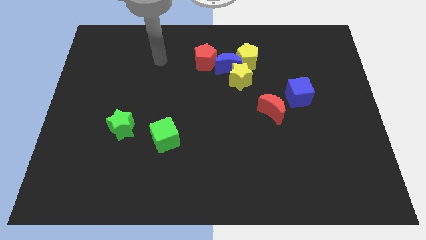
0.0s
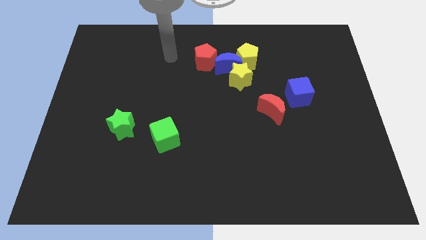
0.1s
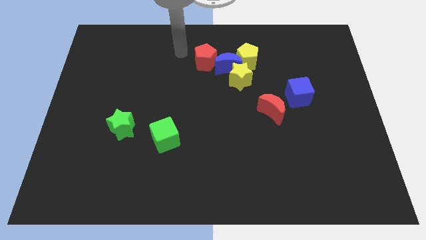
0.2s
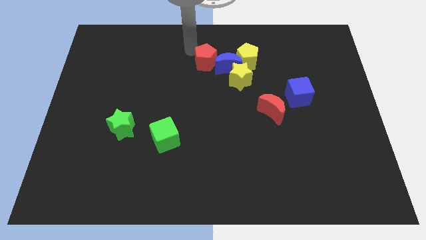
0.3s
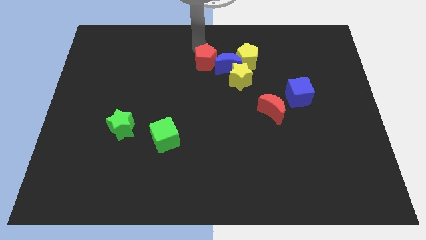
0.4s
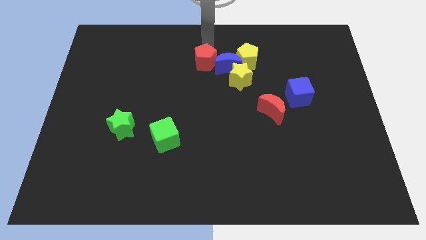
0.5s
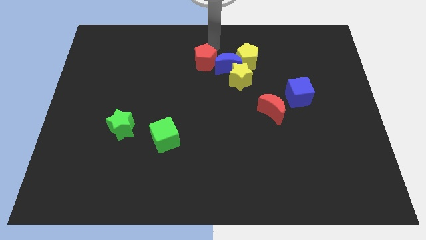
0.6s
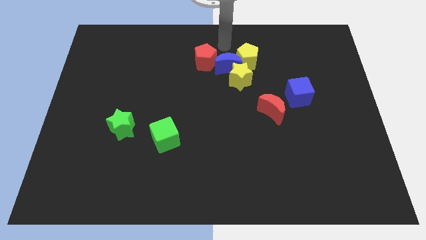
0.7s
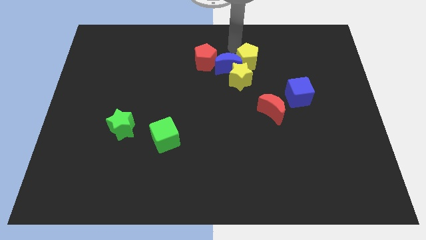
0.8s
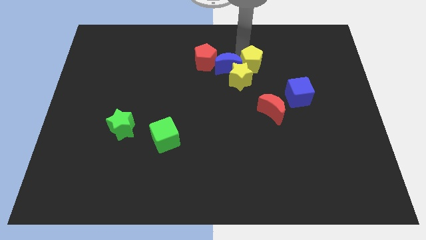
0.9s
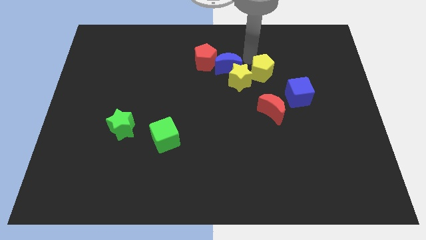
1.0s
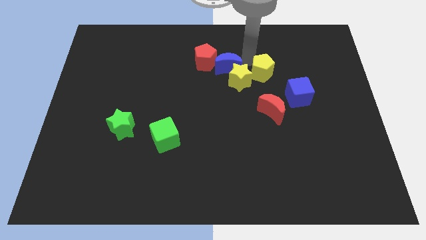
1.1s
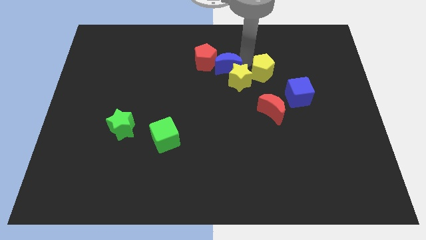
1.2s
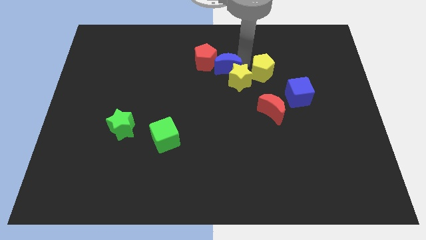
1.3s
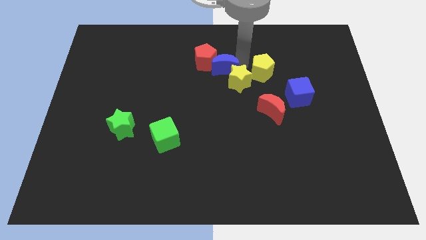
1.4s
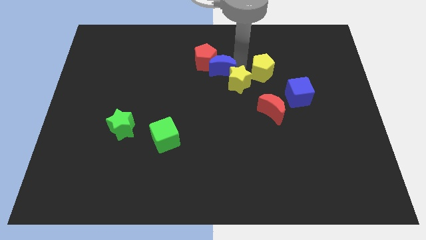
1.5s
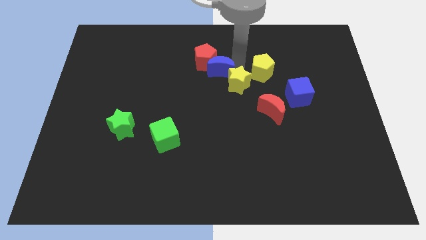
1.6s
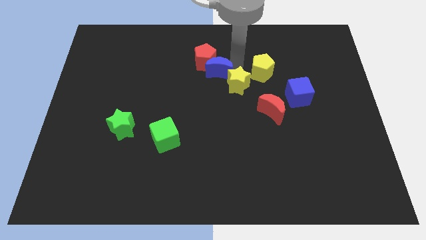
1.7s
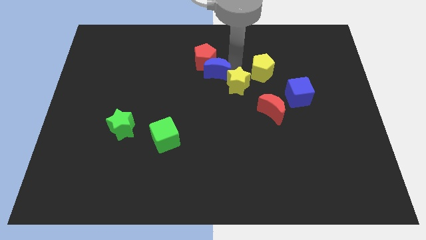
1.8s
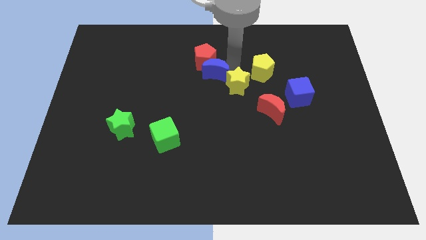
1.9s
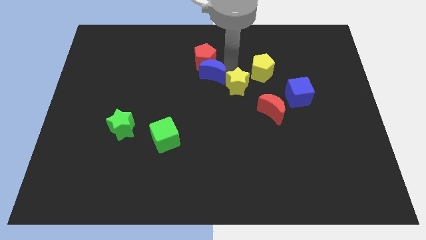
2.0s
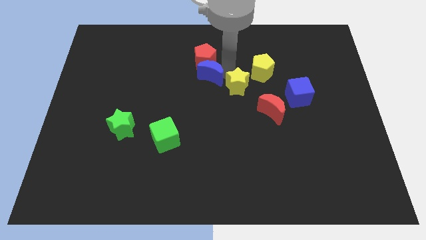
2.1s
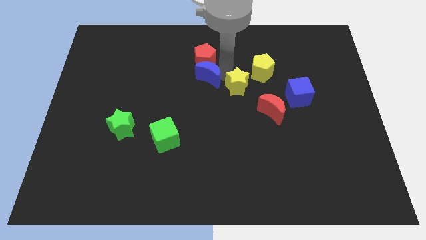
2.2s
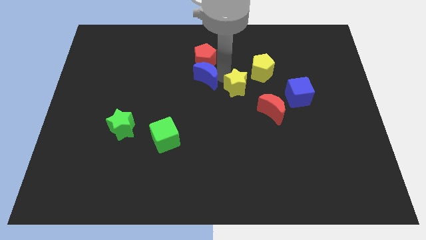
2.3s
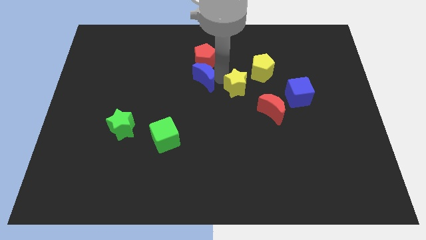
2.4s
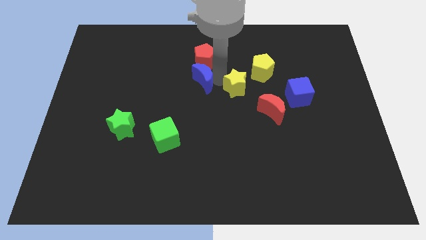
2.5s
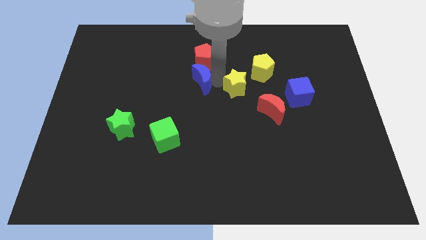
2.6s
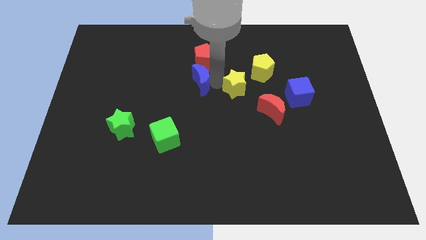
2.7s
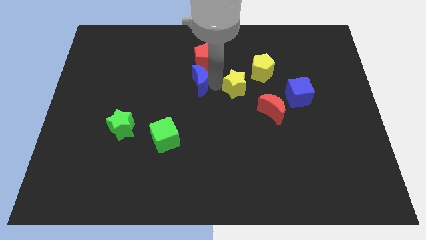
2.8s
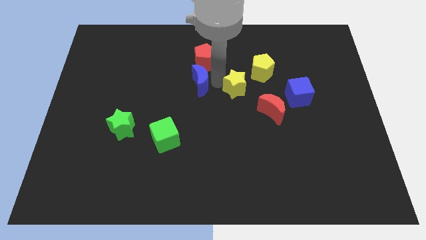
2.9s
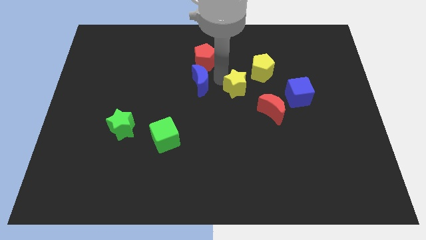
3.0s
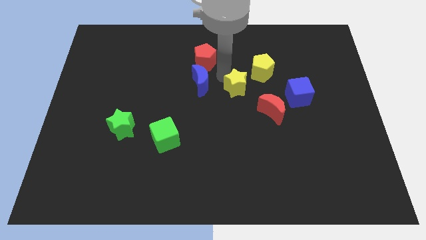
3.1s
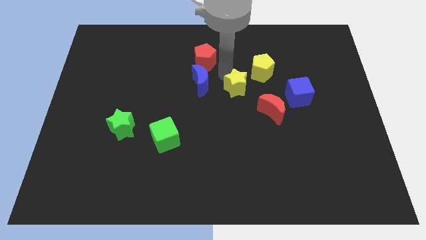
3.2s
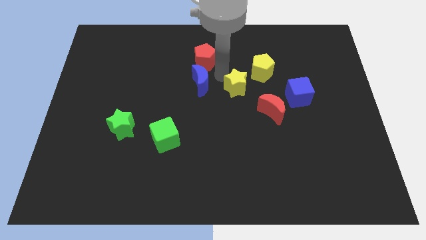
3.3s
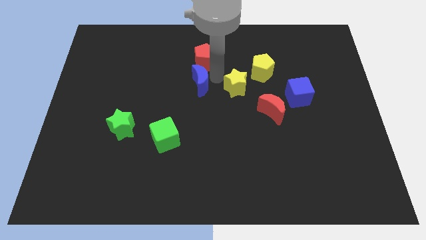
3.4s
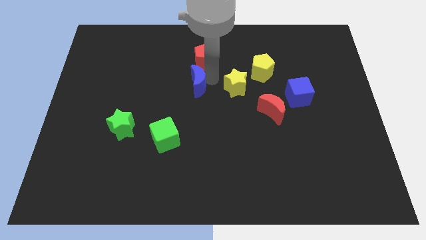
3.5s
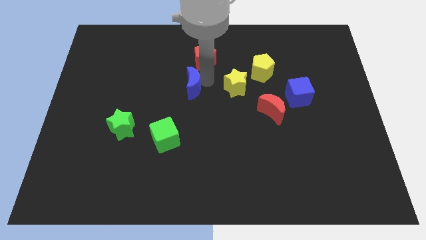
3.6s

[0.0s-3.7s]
separate the blue moon from the group of blocks

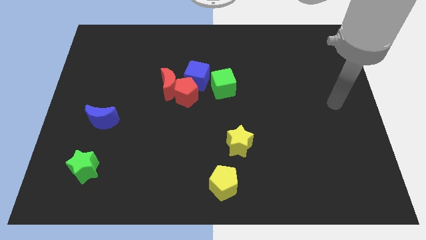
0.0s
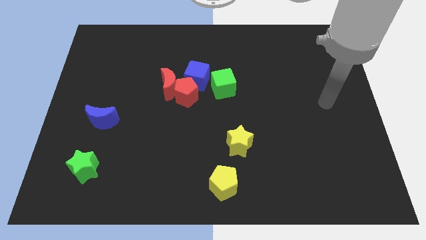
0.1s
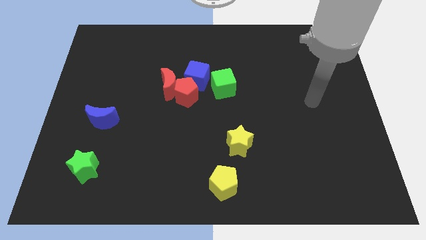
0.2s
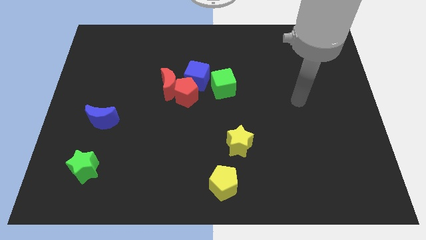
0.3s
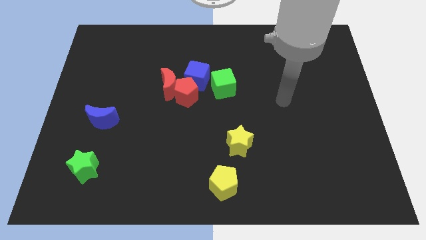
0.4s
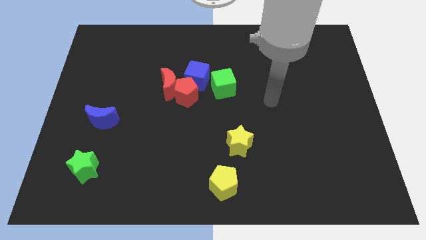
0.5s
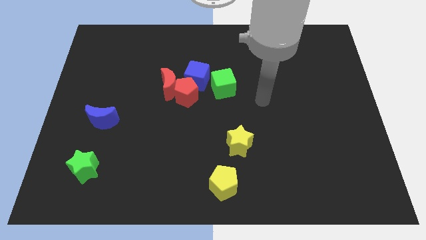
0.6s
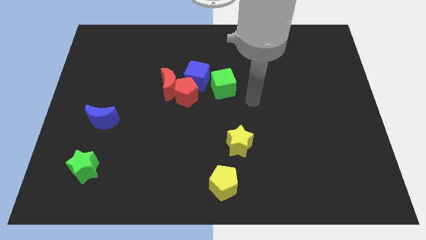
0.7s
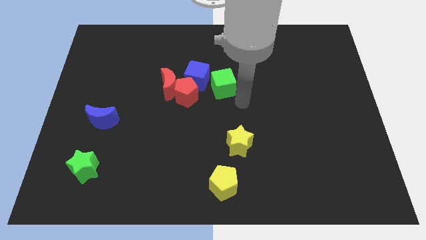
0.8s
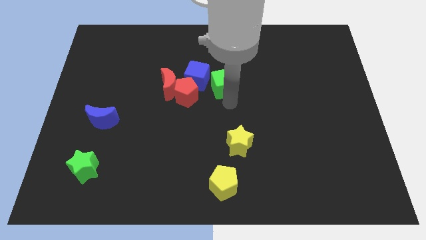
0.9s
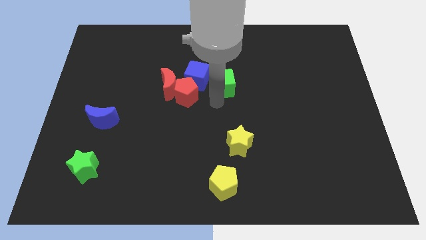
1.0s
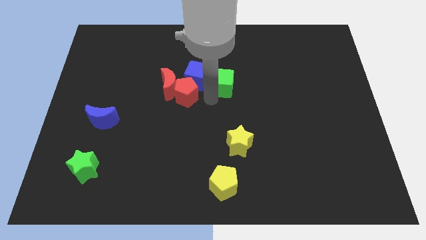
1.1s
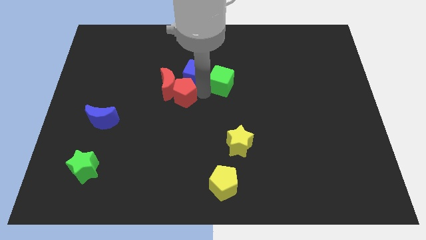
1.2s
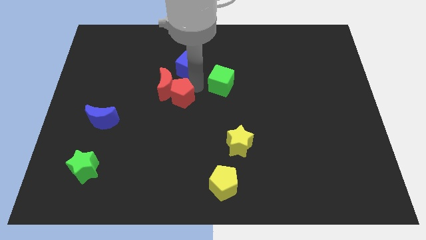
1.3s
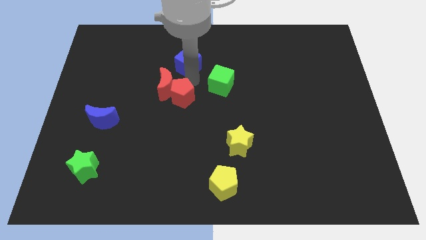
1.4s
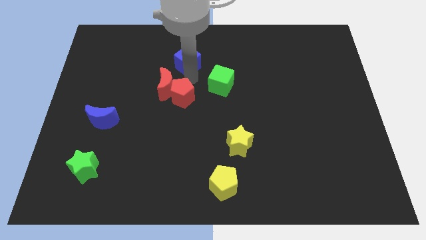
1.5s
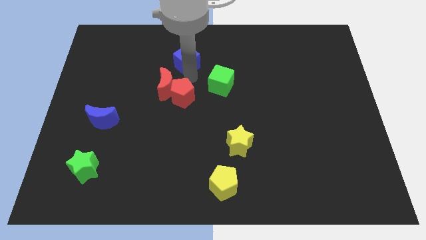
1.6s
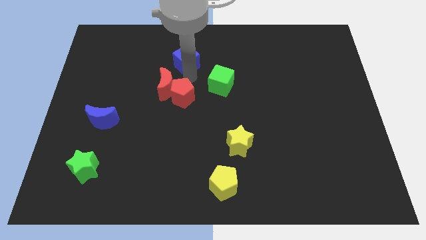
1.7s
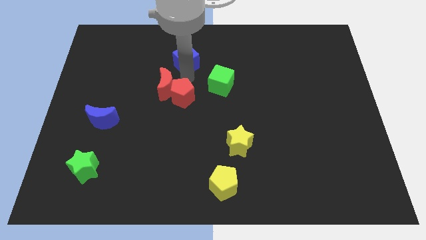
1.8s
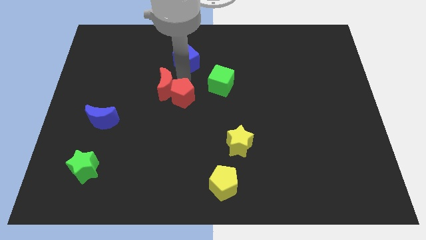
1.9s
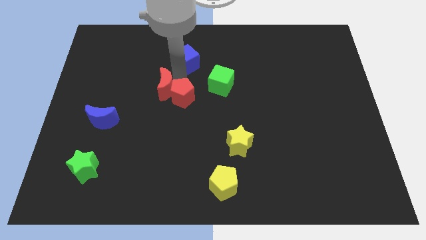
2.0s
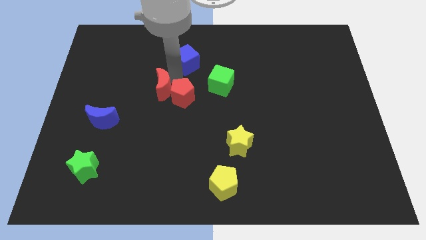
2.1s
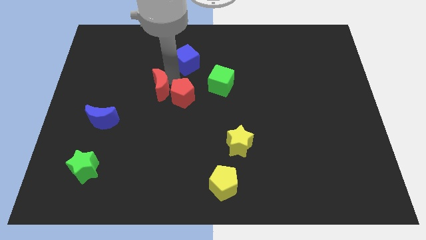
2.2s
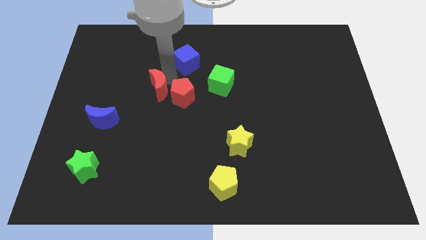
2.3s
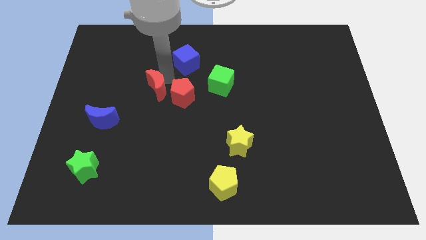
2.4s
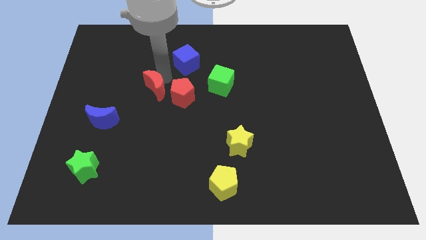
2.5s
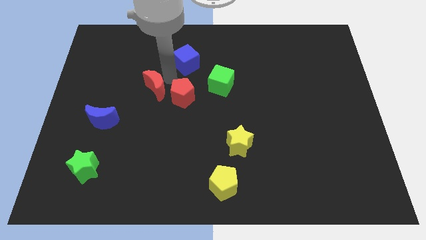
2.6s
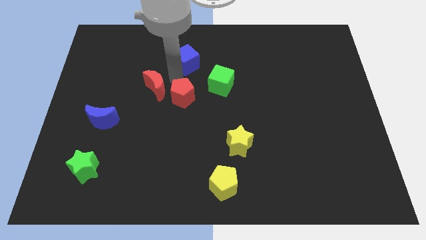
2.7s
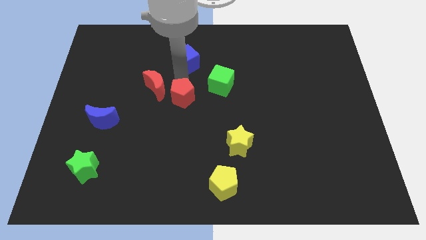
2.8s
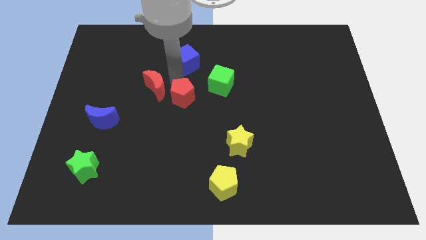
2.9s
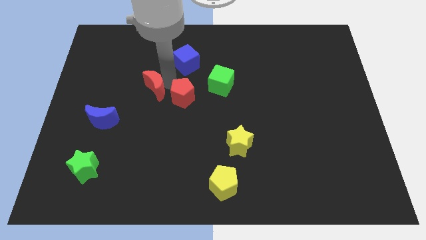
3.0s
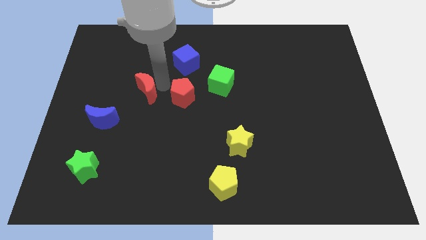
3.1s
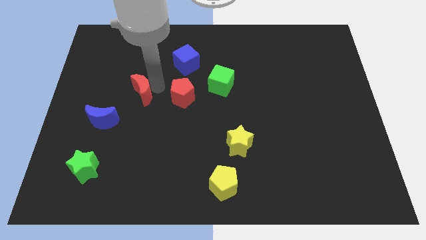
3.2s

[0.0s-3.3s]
pull the red moon apart from the red pentagon and blue cube

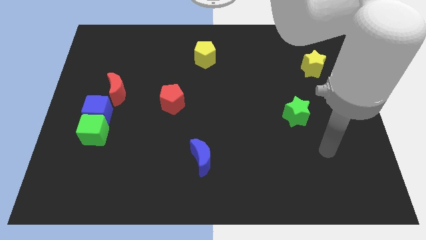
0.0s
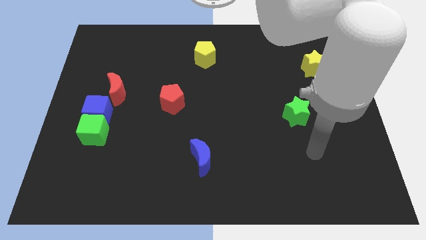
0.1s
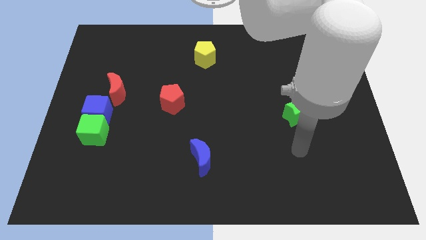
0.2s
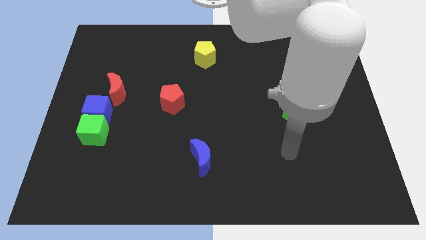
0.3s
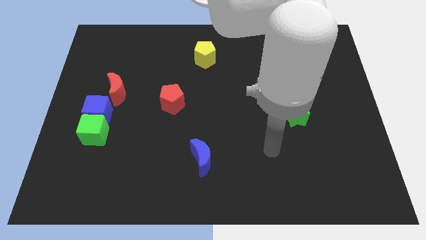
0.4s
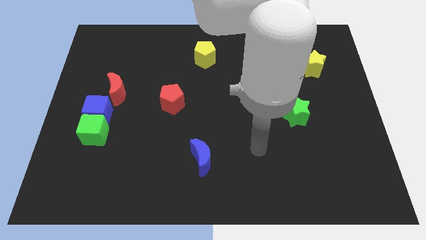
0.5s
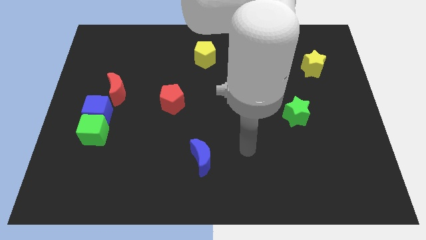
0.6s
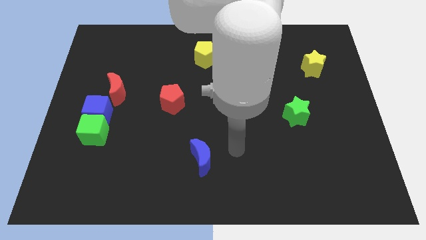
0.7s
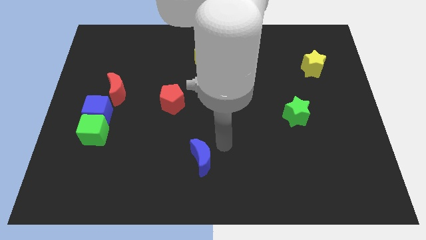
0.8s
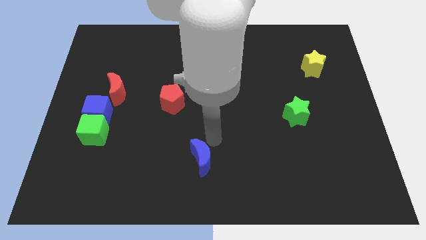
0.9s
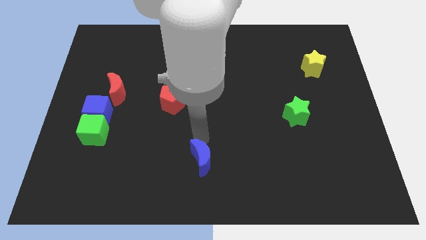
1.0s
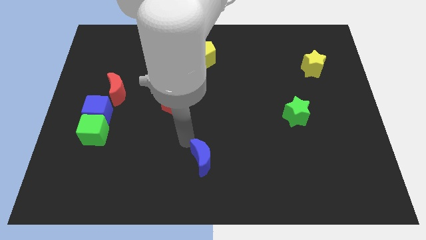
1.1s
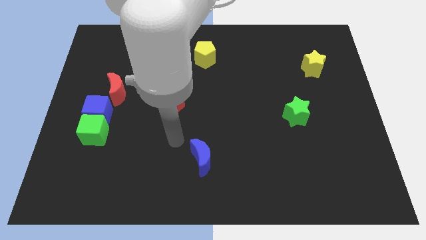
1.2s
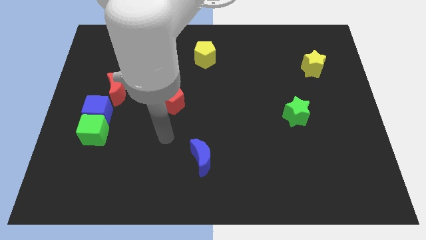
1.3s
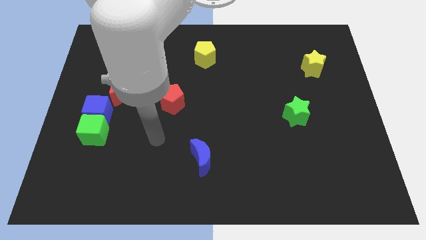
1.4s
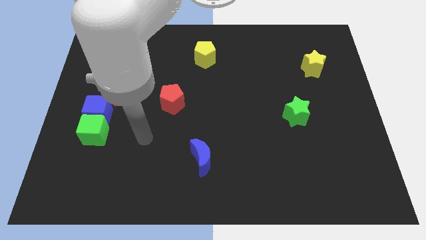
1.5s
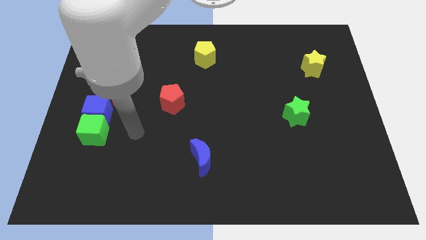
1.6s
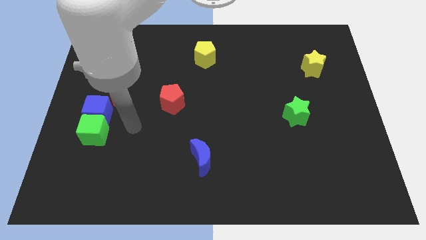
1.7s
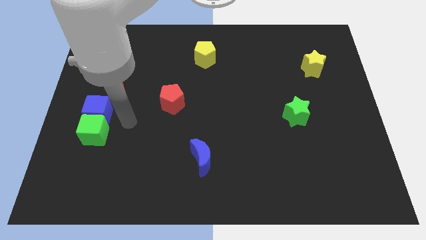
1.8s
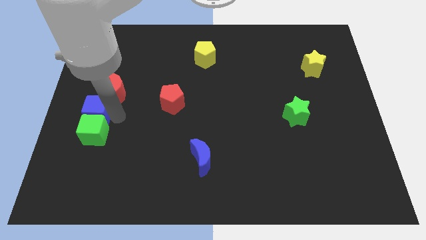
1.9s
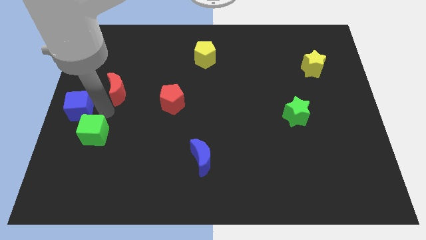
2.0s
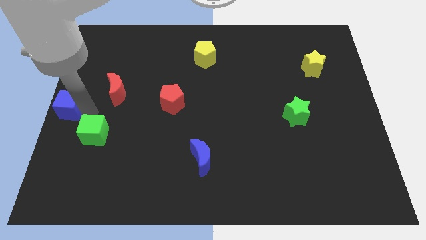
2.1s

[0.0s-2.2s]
separate the green cube from the blue cube

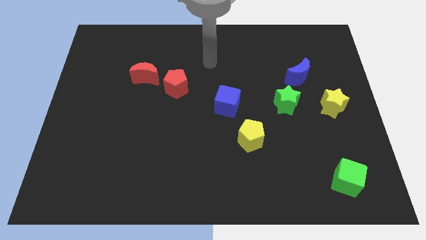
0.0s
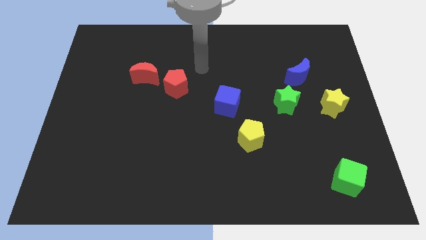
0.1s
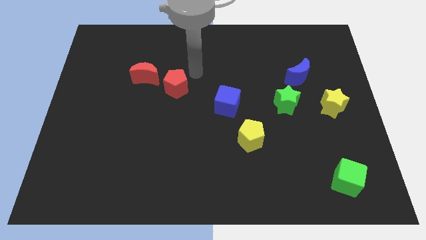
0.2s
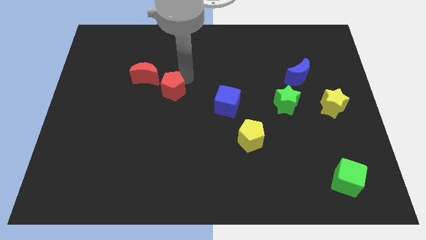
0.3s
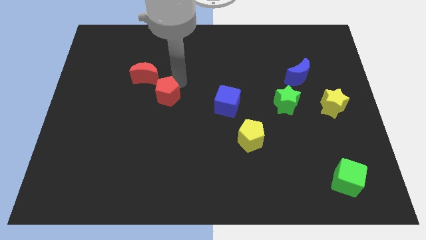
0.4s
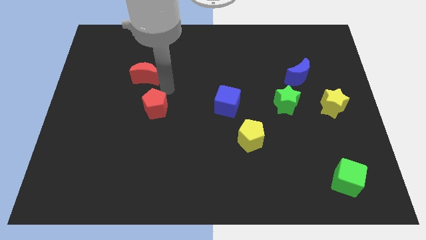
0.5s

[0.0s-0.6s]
separate the red moon from the red pentagon
